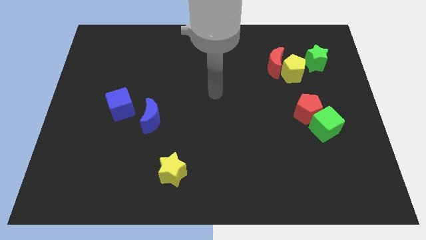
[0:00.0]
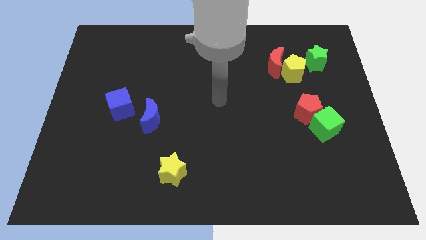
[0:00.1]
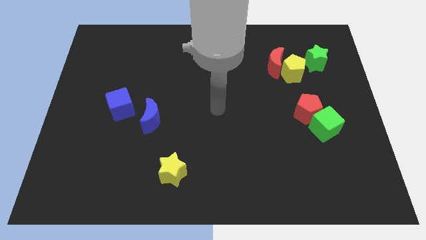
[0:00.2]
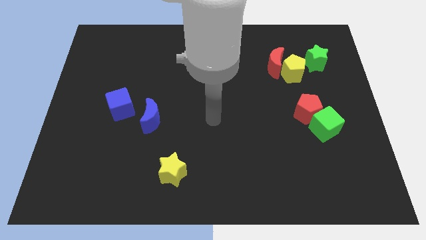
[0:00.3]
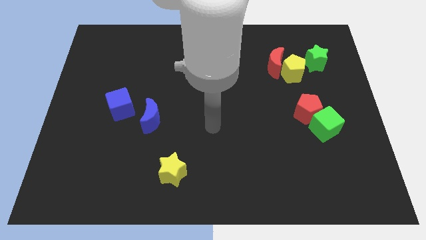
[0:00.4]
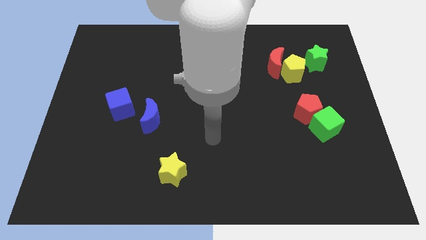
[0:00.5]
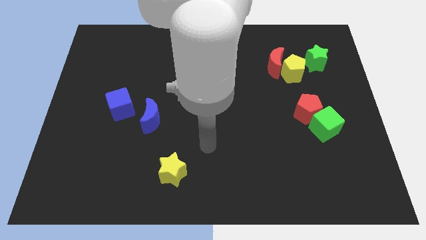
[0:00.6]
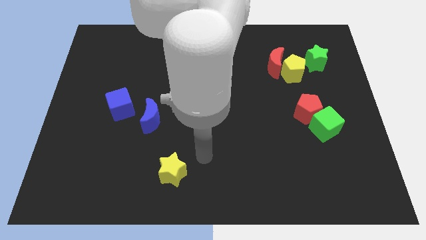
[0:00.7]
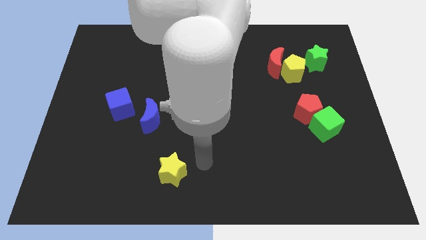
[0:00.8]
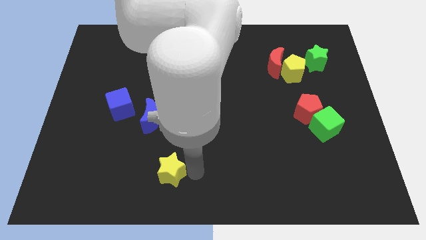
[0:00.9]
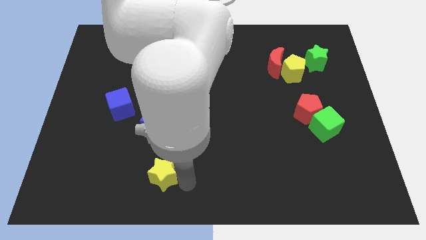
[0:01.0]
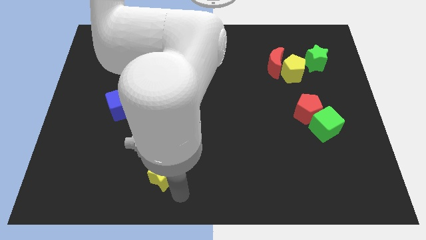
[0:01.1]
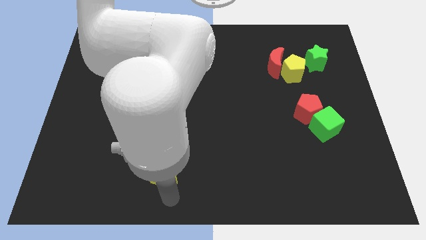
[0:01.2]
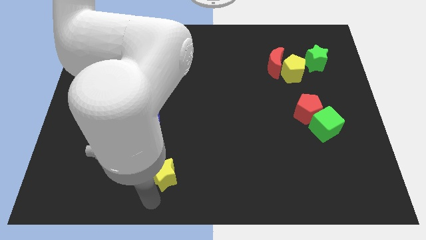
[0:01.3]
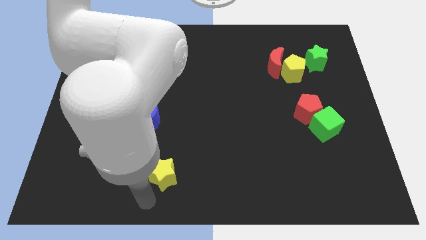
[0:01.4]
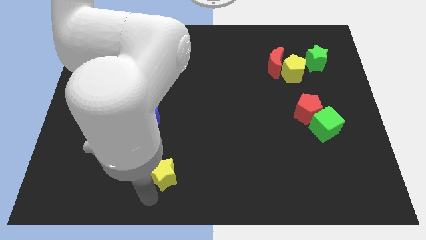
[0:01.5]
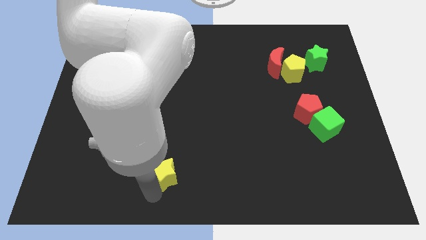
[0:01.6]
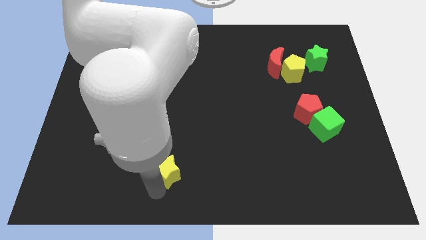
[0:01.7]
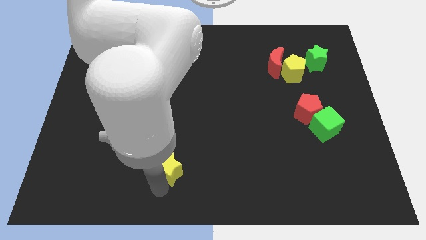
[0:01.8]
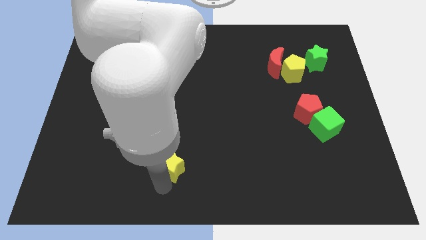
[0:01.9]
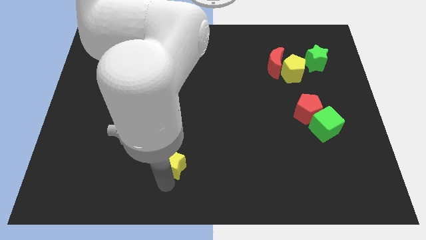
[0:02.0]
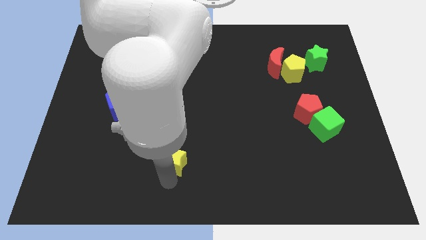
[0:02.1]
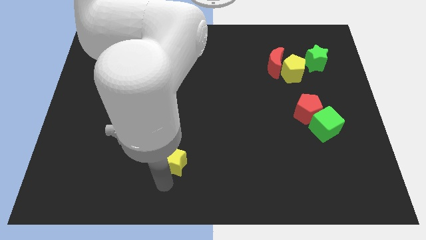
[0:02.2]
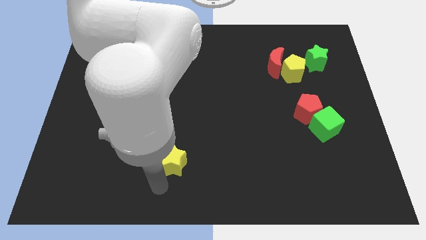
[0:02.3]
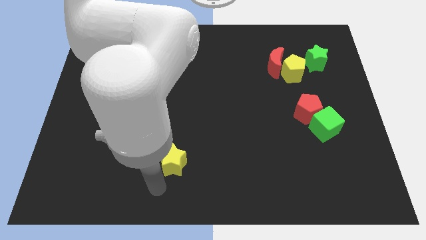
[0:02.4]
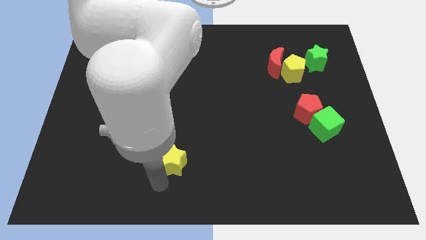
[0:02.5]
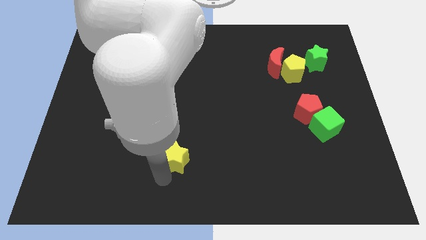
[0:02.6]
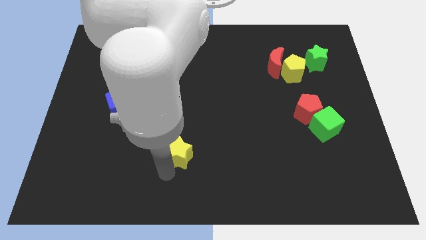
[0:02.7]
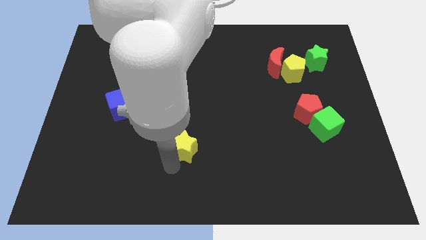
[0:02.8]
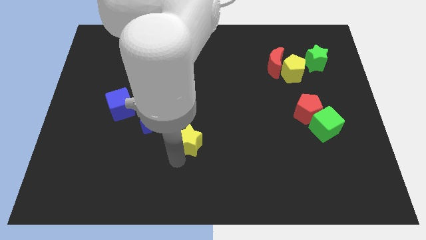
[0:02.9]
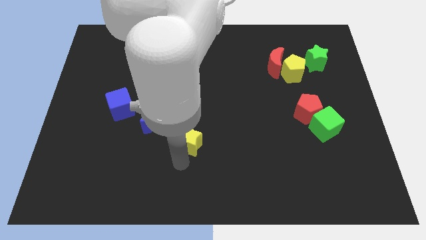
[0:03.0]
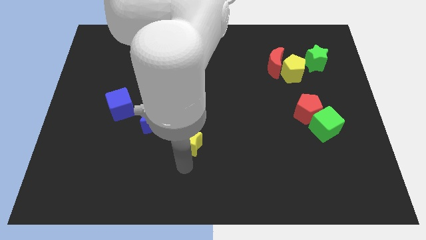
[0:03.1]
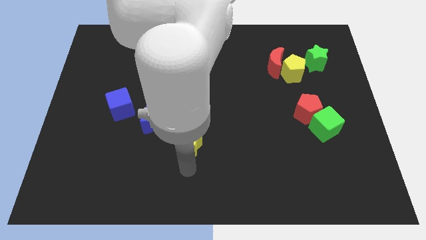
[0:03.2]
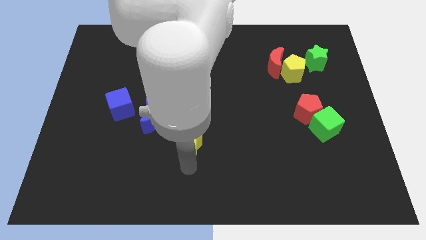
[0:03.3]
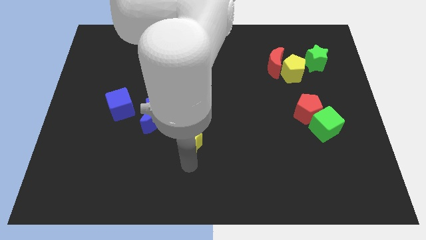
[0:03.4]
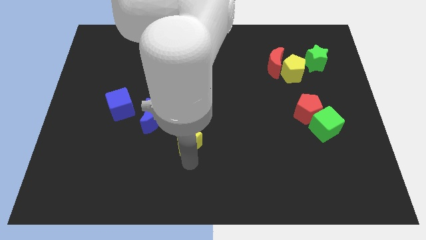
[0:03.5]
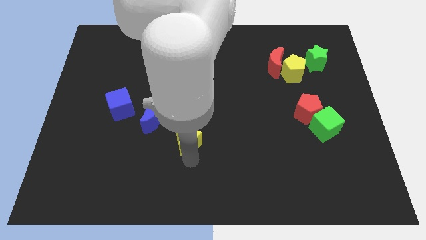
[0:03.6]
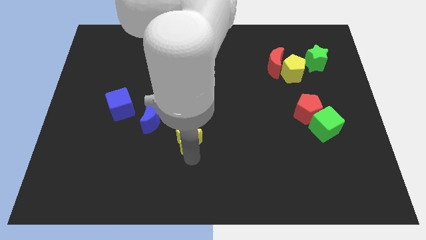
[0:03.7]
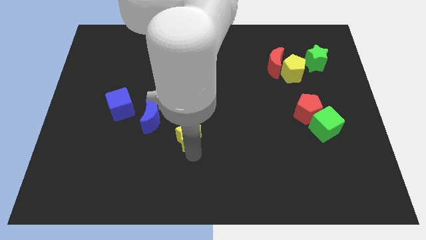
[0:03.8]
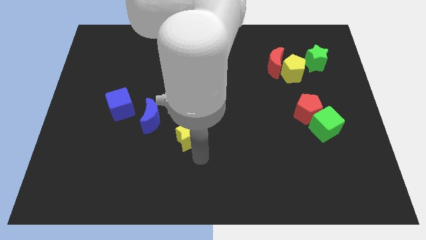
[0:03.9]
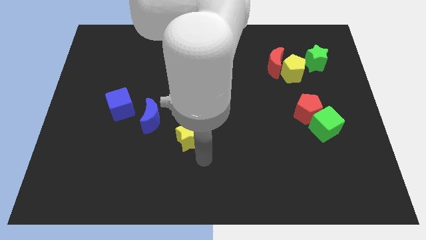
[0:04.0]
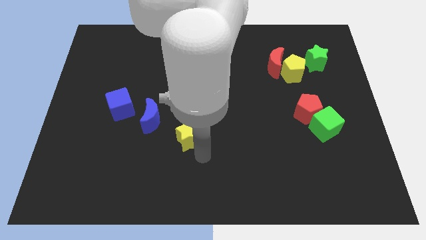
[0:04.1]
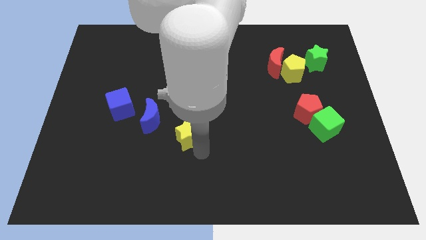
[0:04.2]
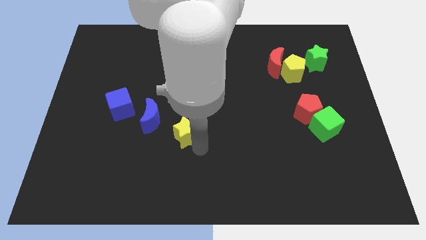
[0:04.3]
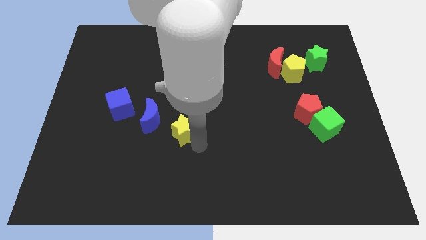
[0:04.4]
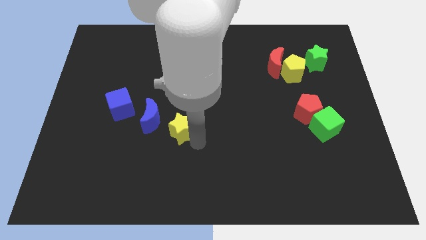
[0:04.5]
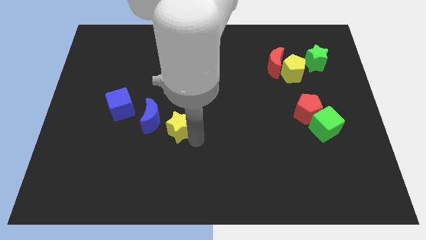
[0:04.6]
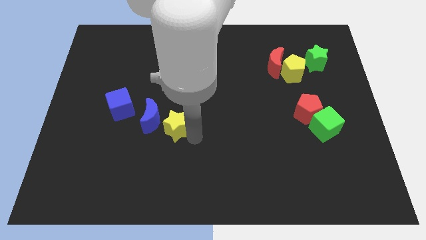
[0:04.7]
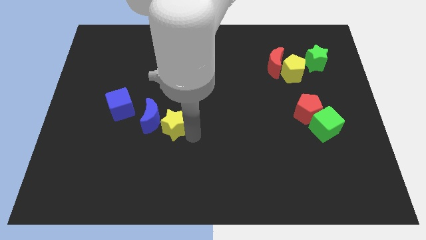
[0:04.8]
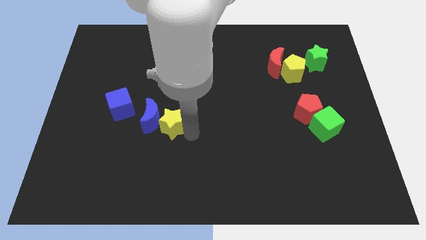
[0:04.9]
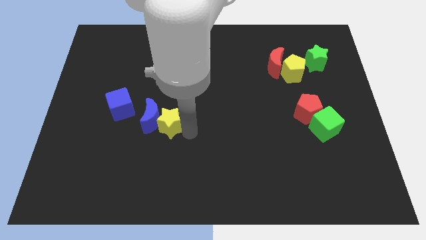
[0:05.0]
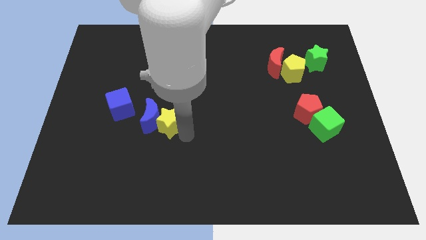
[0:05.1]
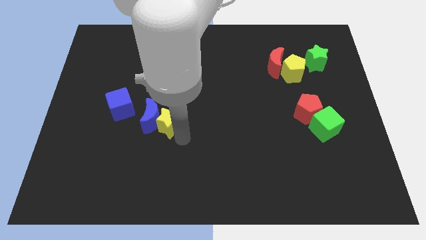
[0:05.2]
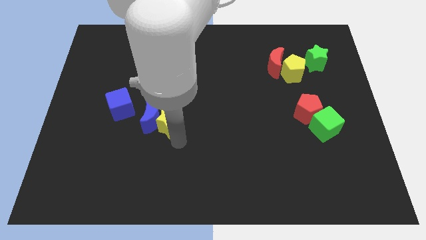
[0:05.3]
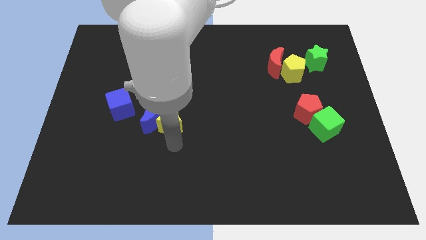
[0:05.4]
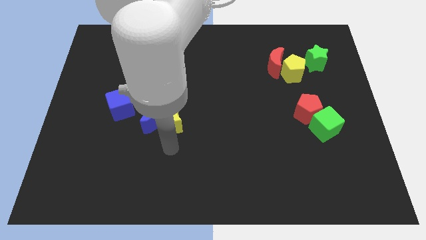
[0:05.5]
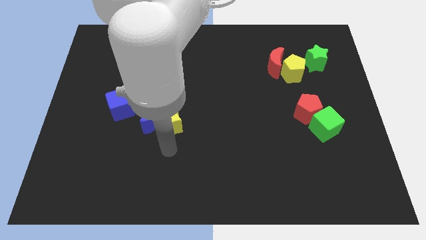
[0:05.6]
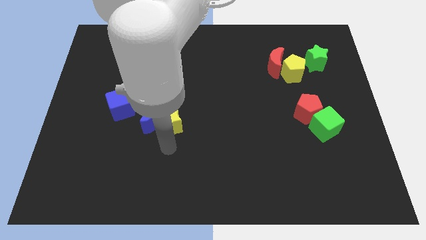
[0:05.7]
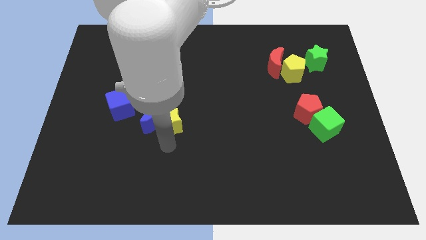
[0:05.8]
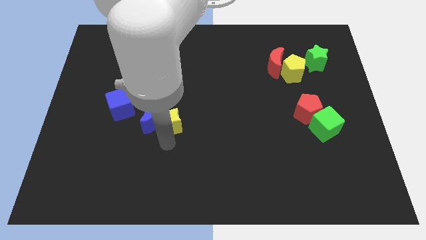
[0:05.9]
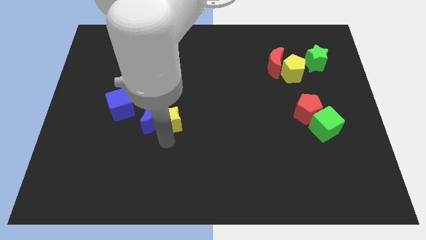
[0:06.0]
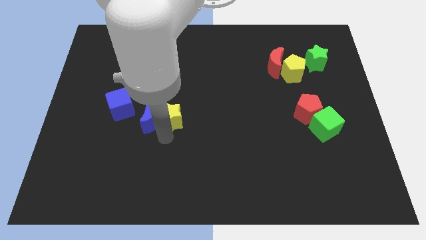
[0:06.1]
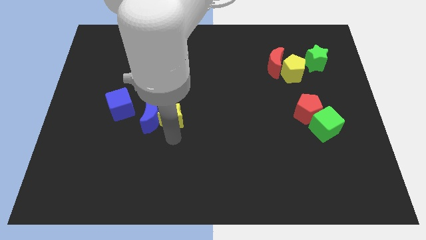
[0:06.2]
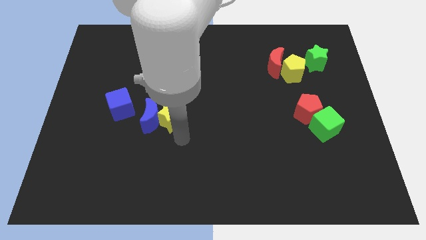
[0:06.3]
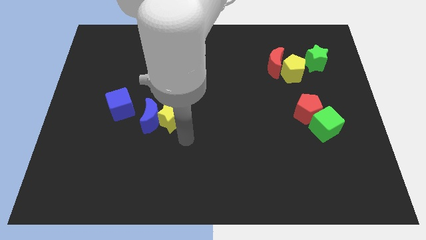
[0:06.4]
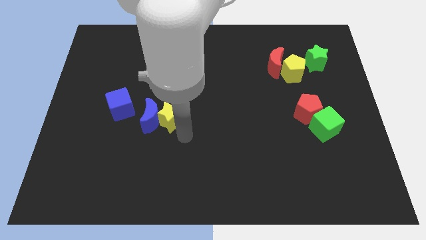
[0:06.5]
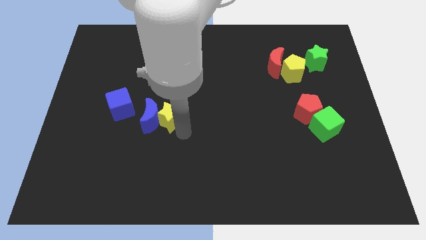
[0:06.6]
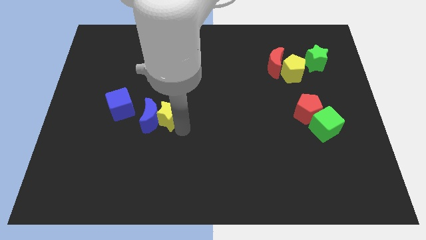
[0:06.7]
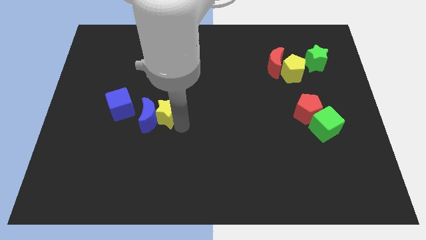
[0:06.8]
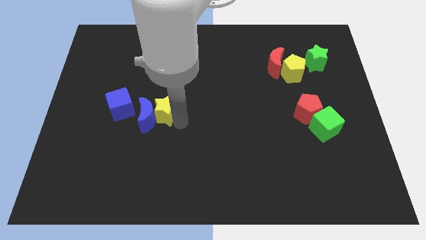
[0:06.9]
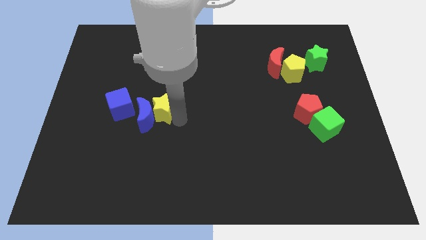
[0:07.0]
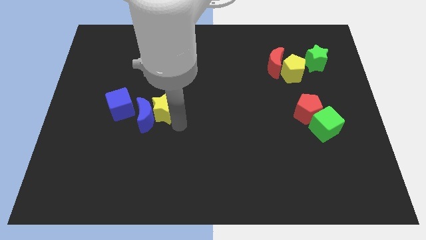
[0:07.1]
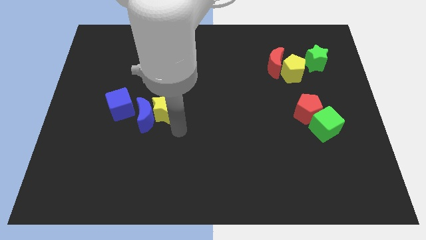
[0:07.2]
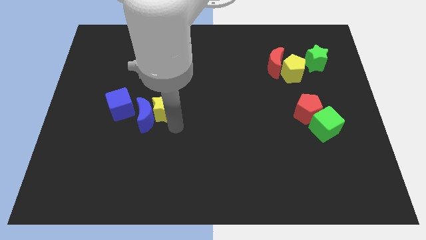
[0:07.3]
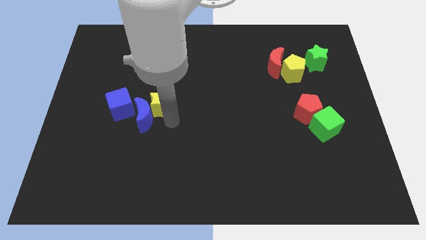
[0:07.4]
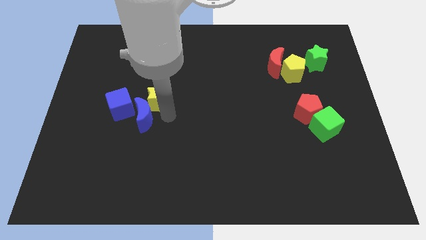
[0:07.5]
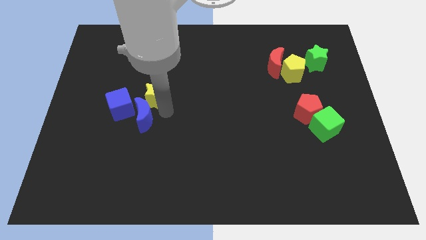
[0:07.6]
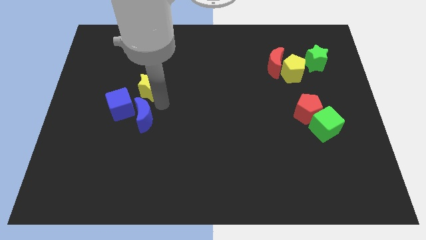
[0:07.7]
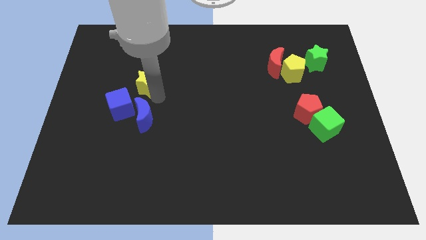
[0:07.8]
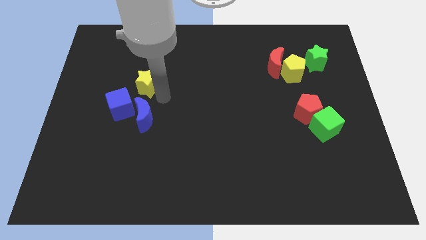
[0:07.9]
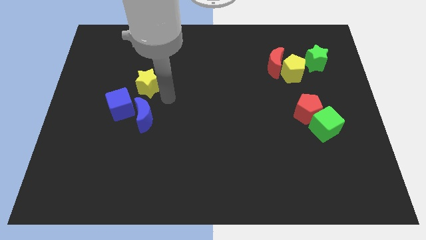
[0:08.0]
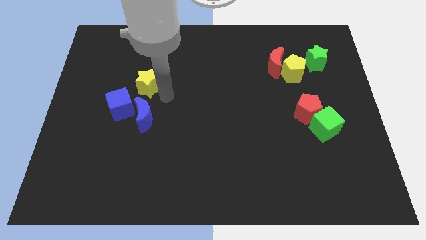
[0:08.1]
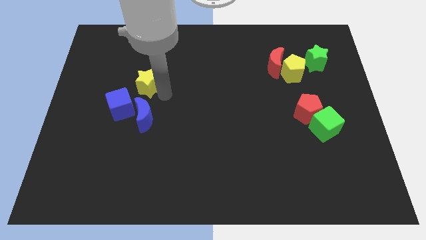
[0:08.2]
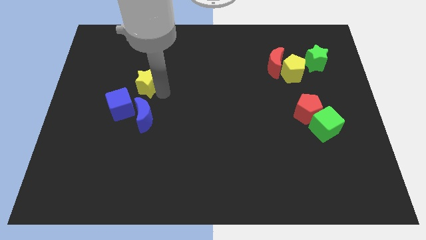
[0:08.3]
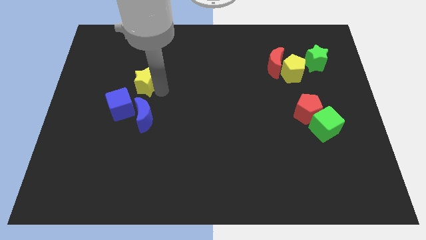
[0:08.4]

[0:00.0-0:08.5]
put the yellow star above the blue cube
